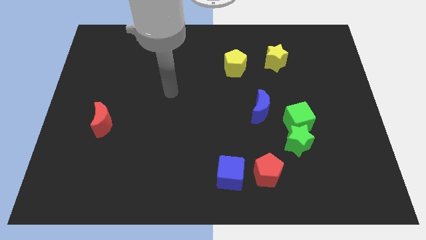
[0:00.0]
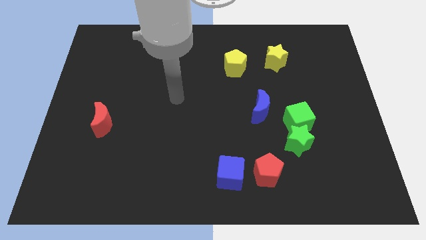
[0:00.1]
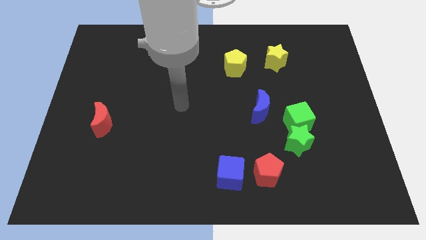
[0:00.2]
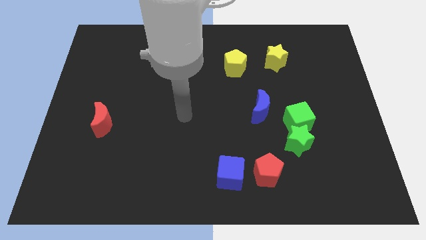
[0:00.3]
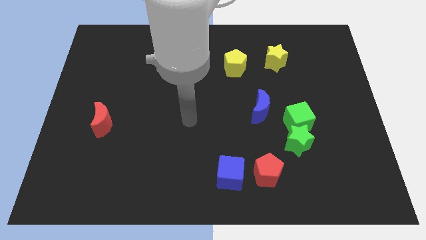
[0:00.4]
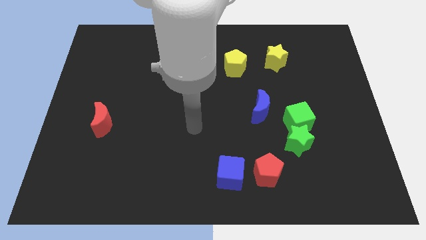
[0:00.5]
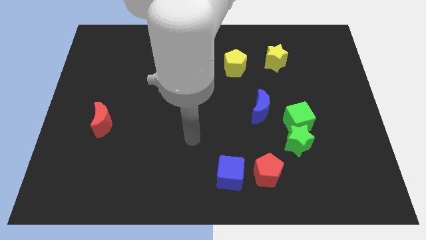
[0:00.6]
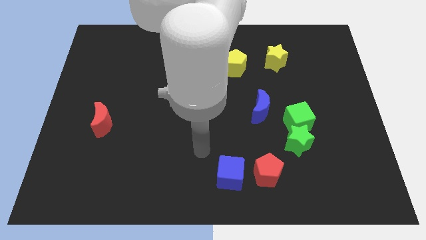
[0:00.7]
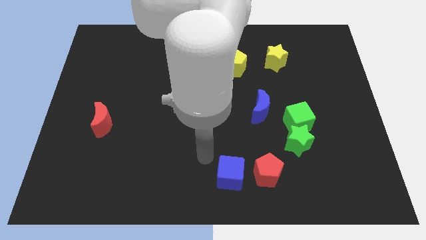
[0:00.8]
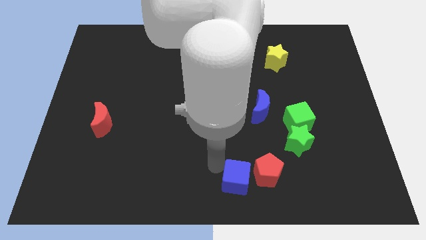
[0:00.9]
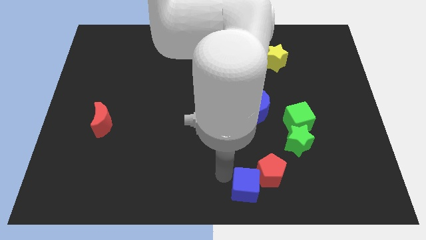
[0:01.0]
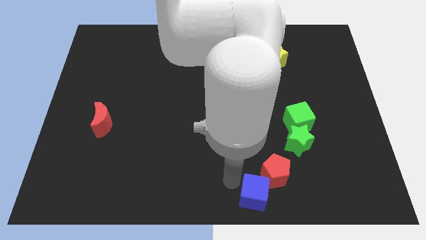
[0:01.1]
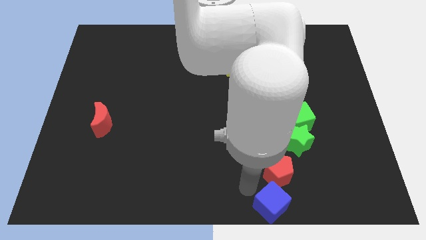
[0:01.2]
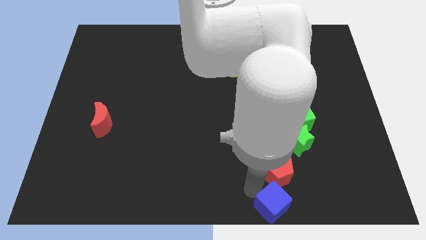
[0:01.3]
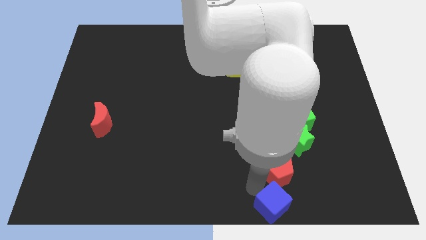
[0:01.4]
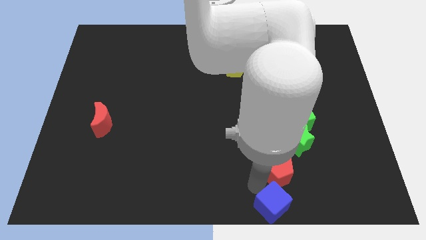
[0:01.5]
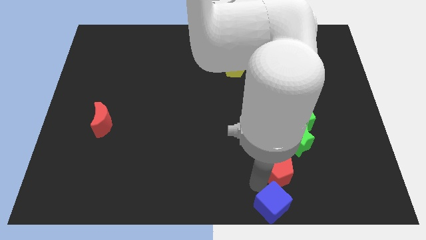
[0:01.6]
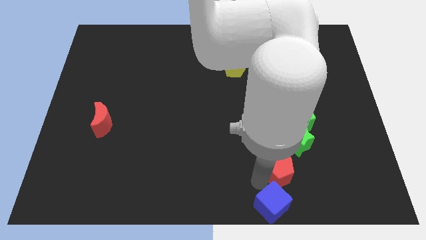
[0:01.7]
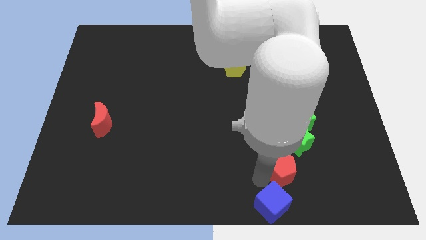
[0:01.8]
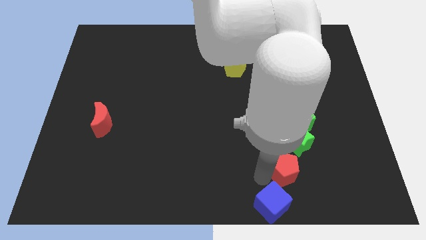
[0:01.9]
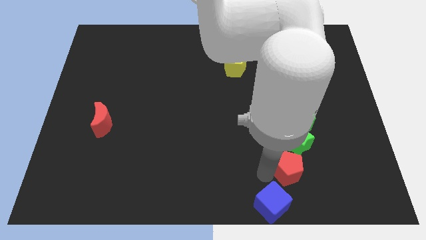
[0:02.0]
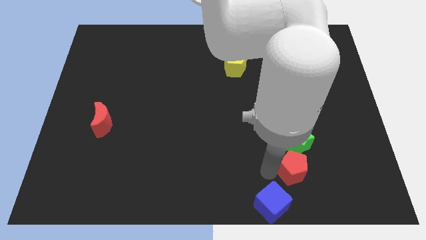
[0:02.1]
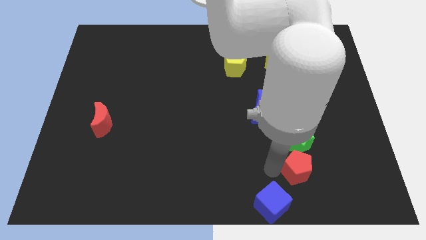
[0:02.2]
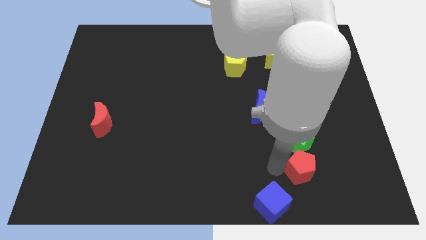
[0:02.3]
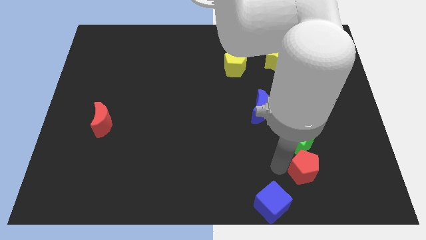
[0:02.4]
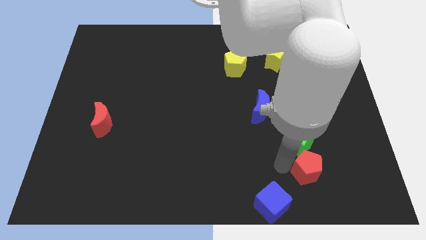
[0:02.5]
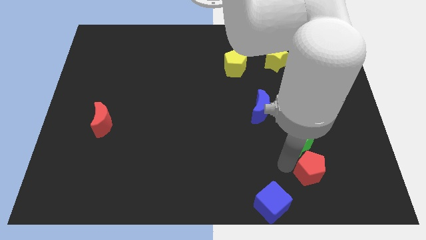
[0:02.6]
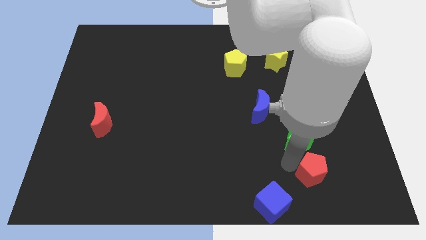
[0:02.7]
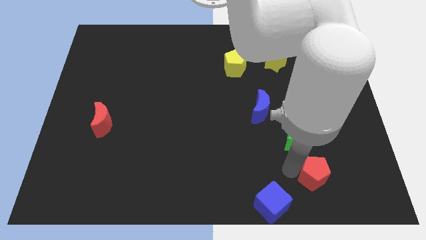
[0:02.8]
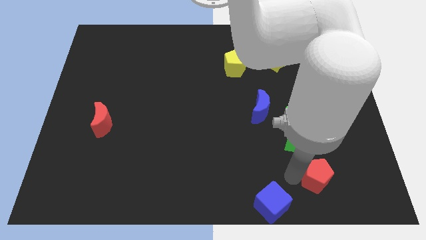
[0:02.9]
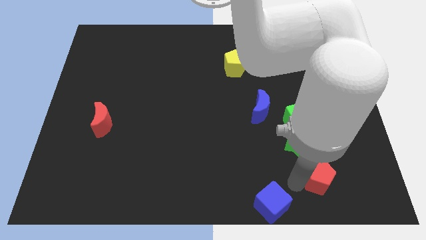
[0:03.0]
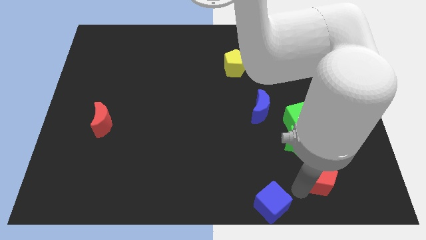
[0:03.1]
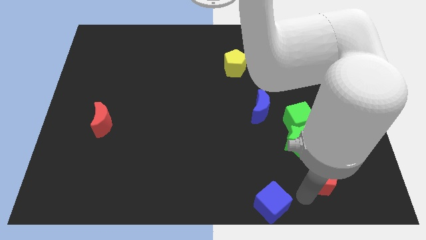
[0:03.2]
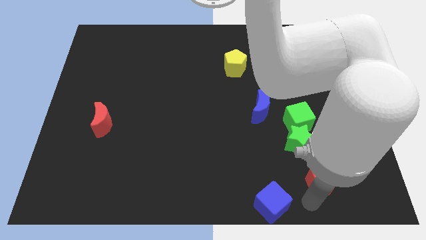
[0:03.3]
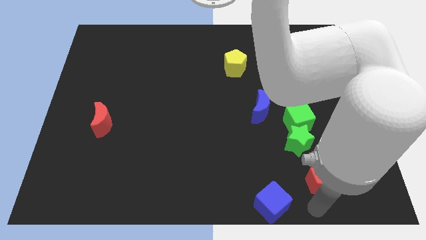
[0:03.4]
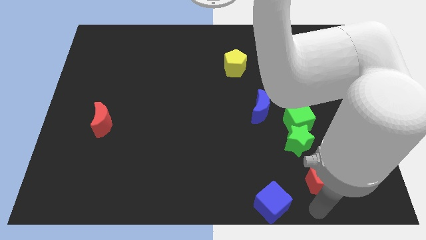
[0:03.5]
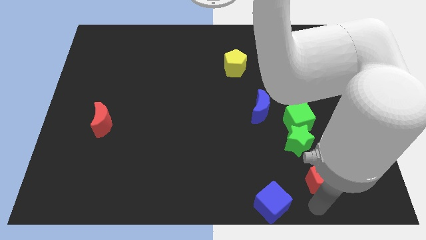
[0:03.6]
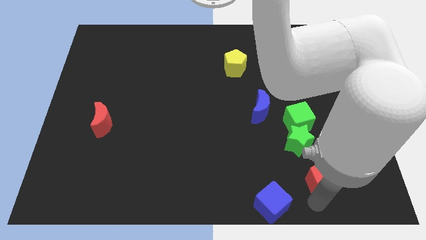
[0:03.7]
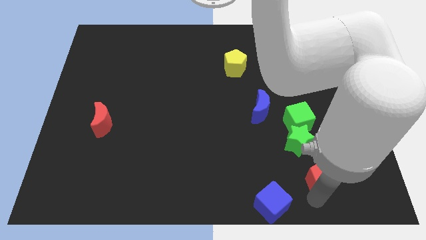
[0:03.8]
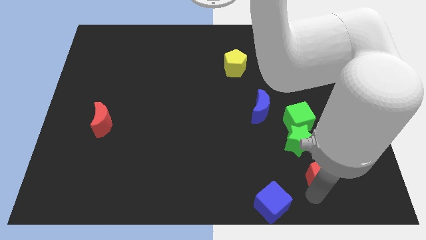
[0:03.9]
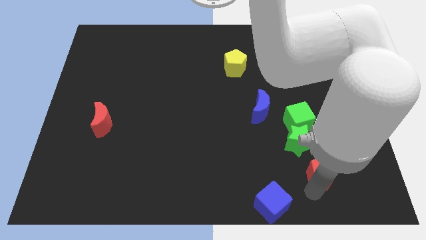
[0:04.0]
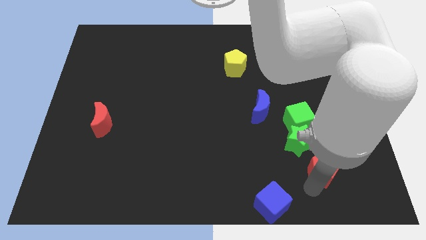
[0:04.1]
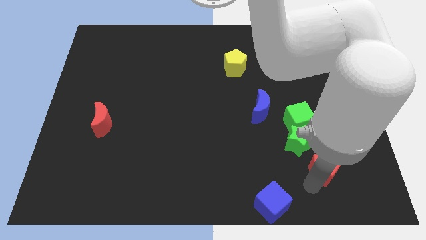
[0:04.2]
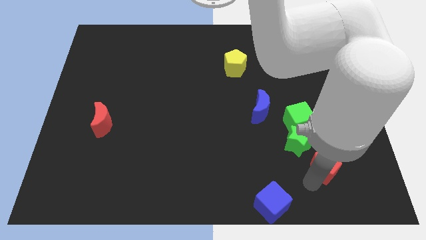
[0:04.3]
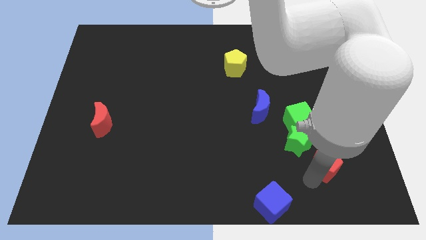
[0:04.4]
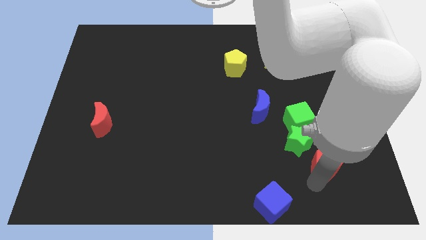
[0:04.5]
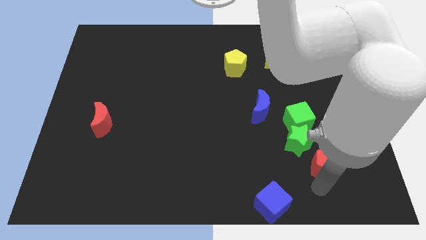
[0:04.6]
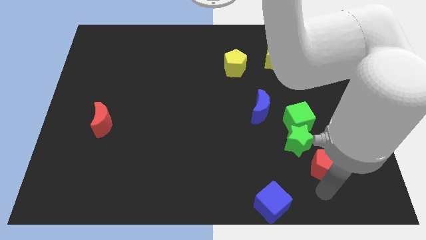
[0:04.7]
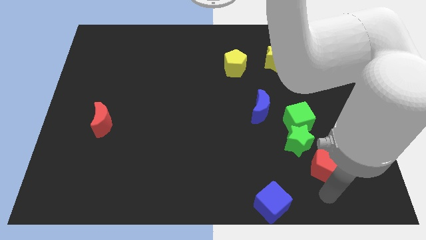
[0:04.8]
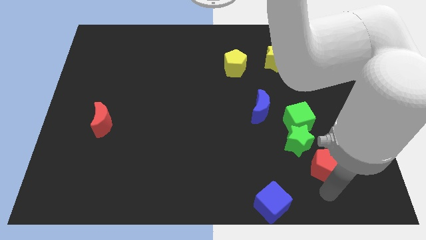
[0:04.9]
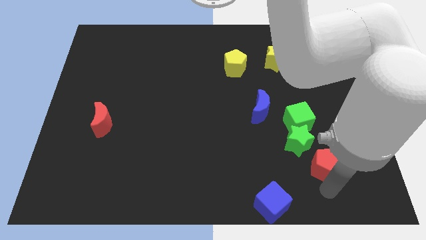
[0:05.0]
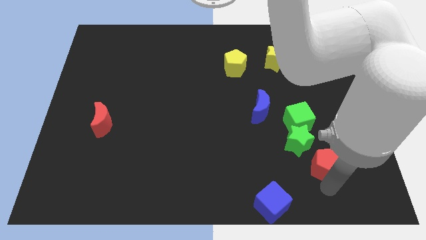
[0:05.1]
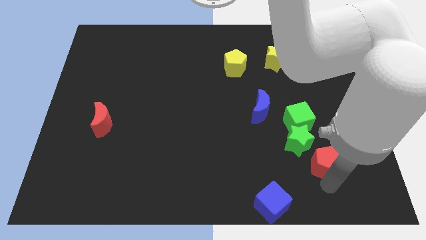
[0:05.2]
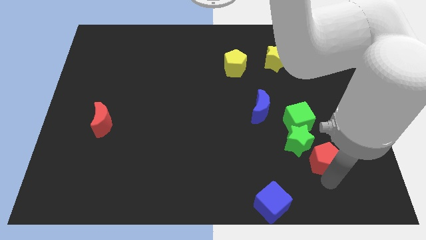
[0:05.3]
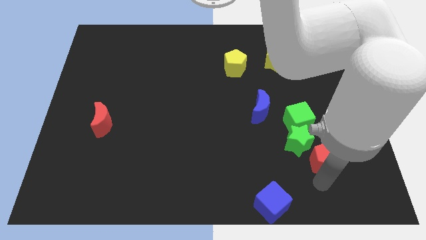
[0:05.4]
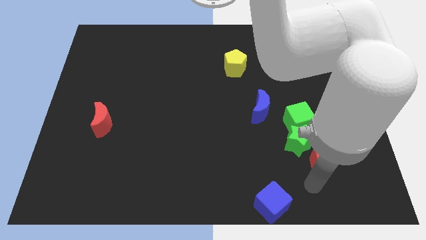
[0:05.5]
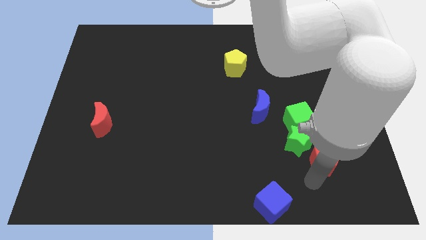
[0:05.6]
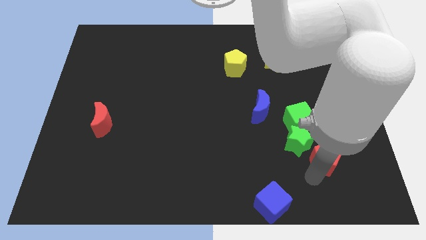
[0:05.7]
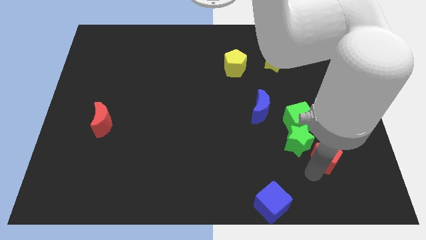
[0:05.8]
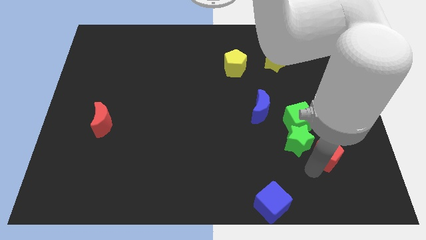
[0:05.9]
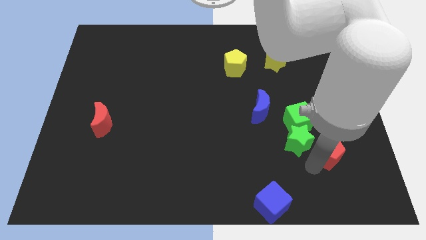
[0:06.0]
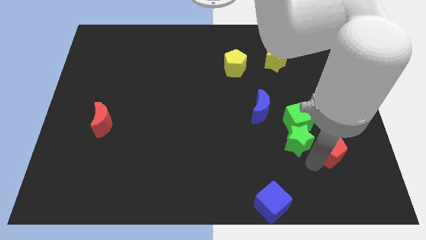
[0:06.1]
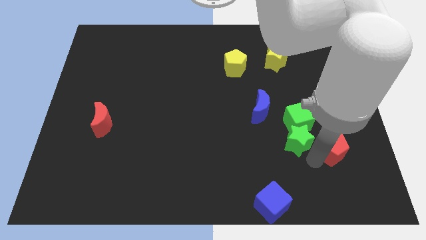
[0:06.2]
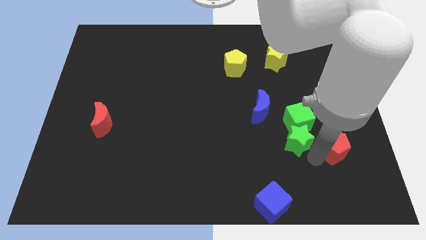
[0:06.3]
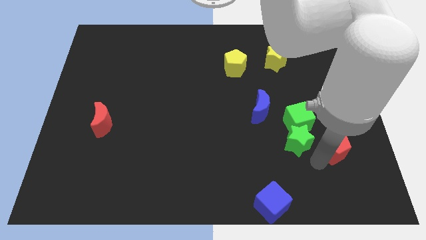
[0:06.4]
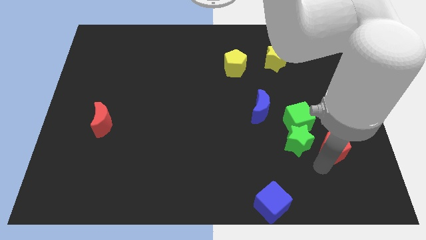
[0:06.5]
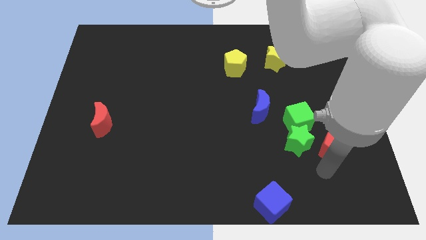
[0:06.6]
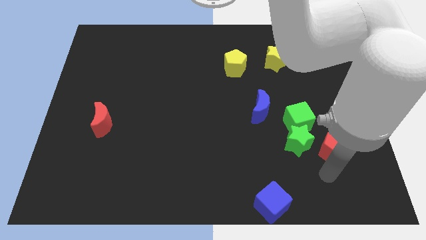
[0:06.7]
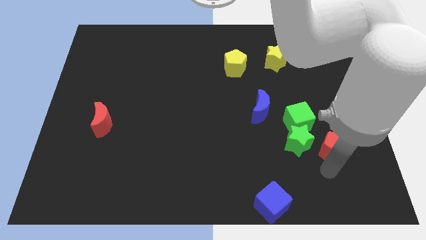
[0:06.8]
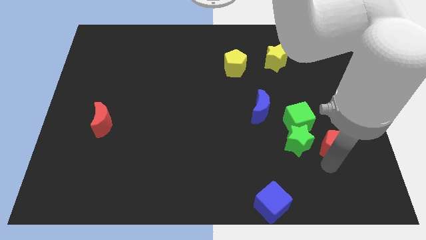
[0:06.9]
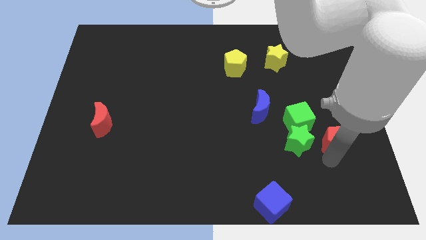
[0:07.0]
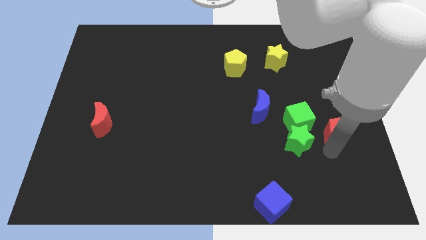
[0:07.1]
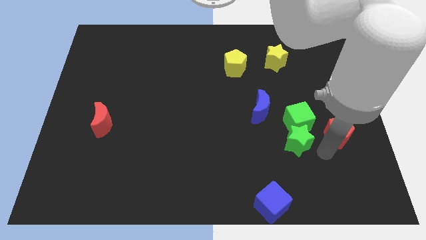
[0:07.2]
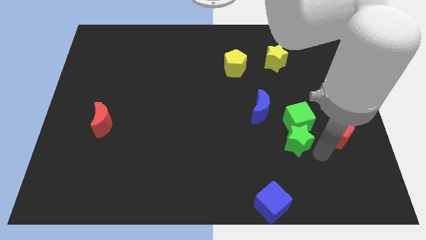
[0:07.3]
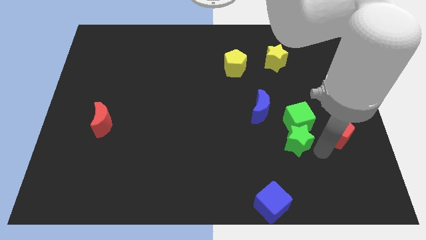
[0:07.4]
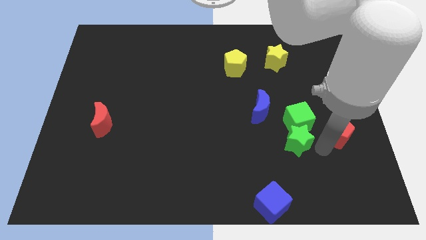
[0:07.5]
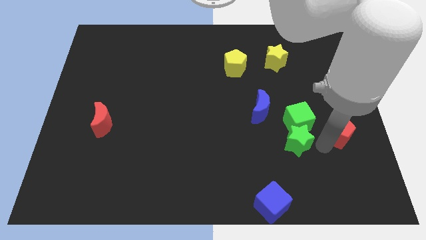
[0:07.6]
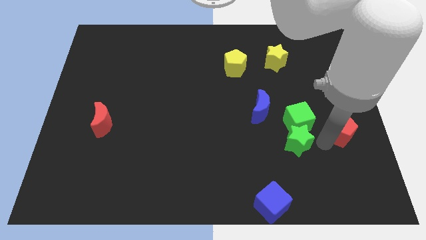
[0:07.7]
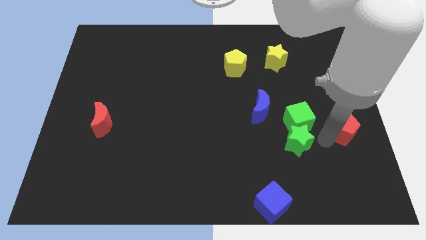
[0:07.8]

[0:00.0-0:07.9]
slide the red pentagon to the right side of the board
